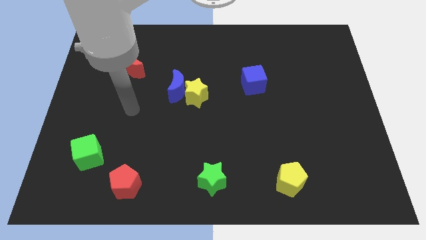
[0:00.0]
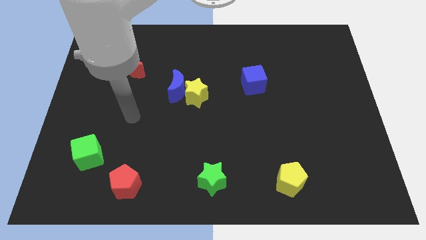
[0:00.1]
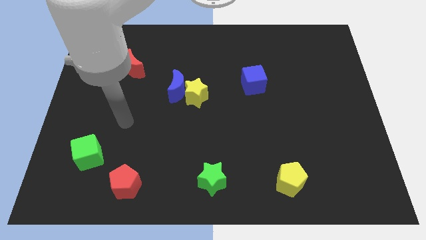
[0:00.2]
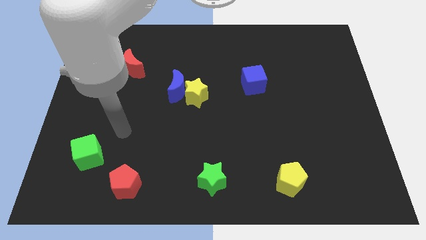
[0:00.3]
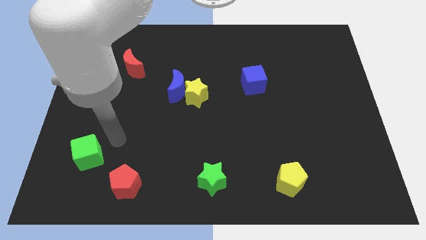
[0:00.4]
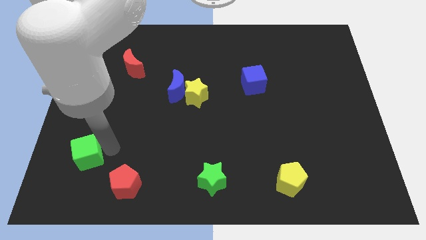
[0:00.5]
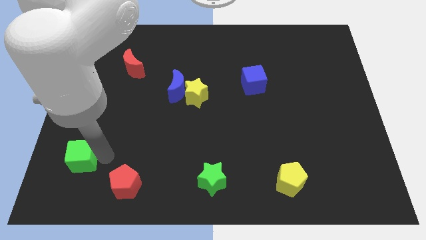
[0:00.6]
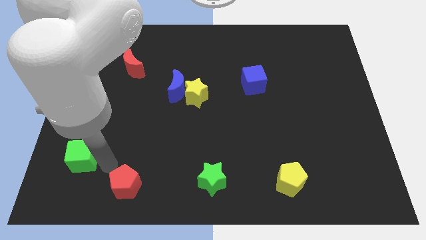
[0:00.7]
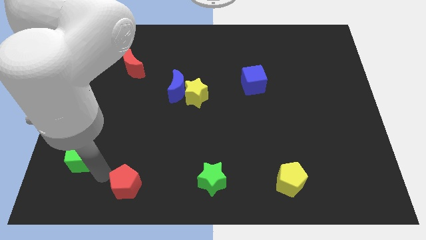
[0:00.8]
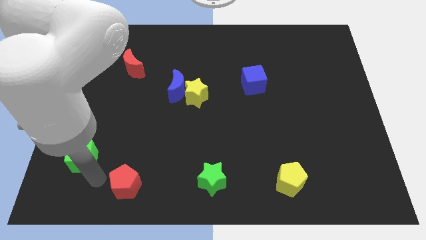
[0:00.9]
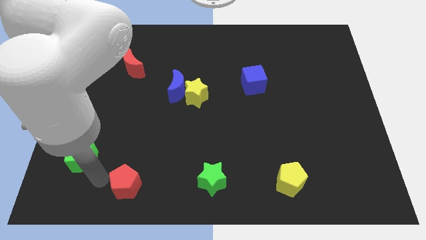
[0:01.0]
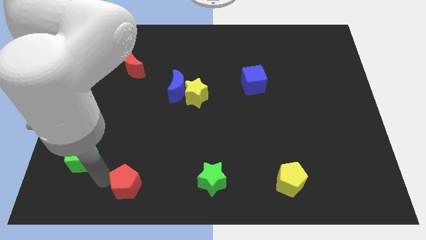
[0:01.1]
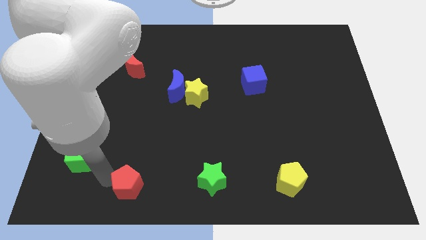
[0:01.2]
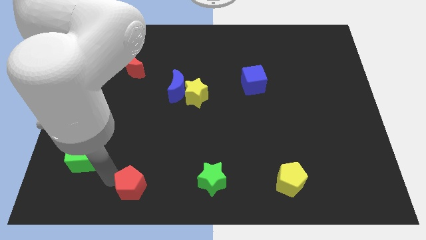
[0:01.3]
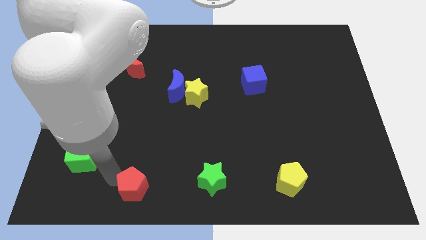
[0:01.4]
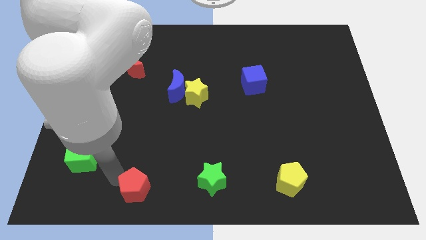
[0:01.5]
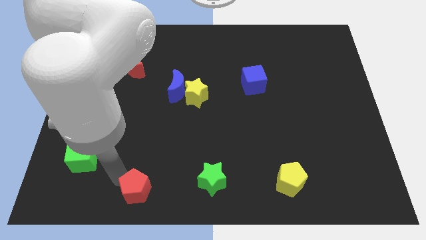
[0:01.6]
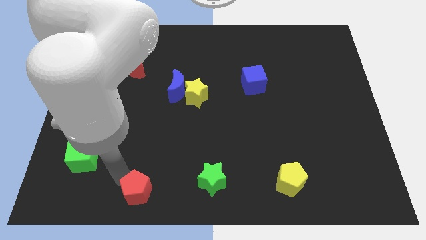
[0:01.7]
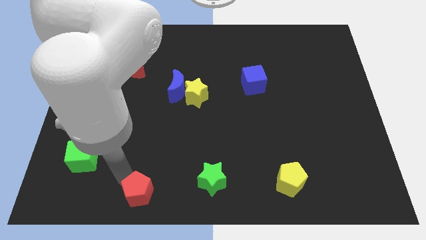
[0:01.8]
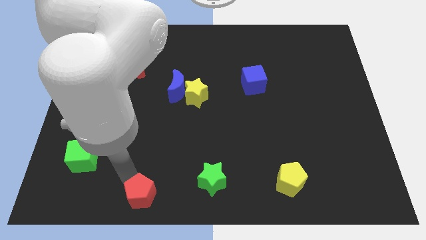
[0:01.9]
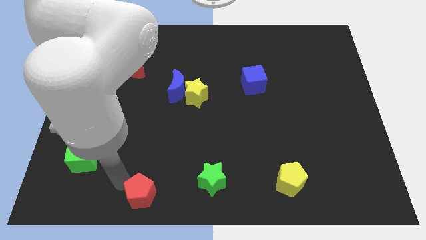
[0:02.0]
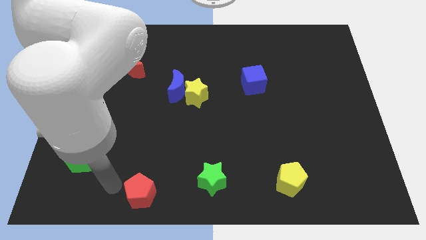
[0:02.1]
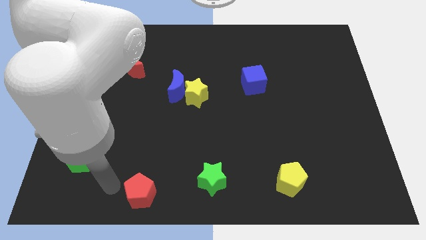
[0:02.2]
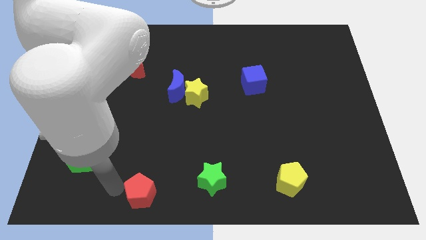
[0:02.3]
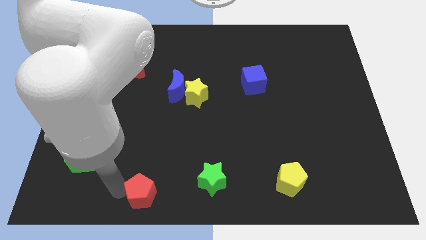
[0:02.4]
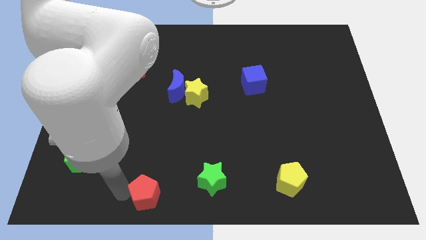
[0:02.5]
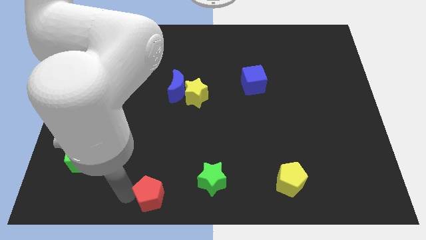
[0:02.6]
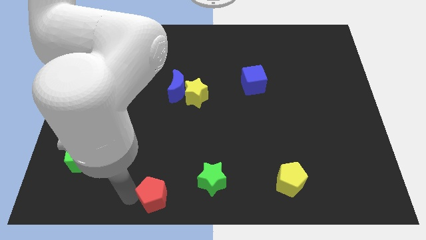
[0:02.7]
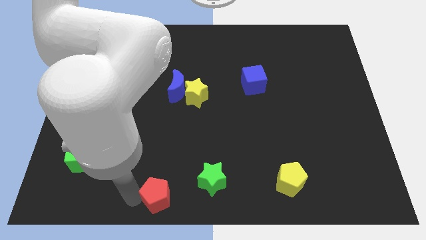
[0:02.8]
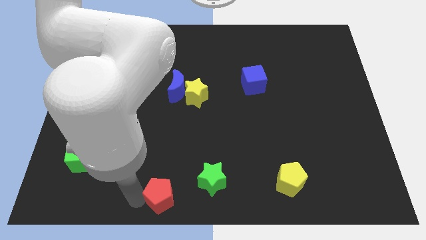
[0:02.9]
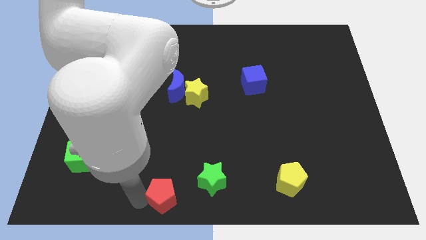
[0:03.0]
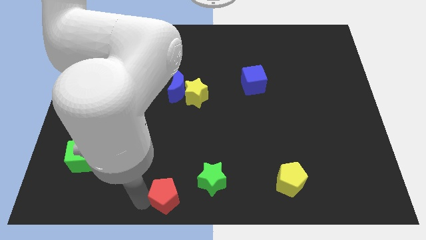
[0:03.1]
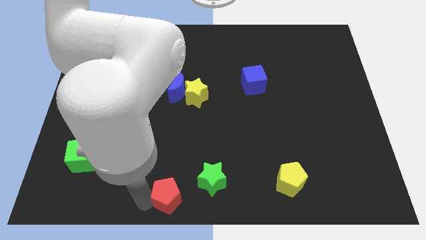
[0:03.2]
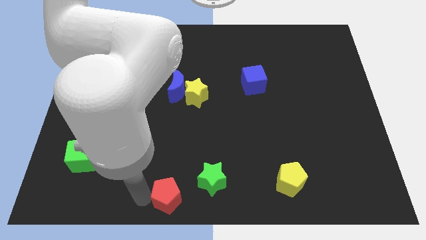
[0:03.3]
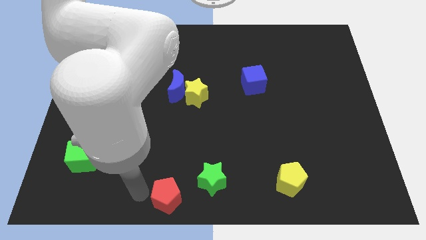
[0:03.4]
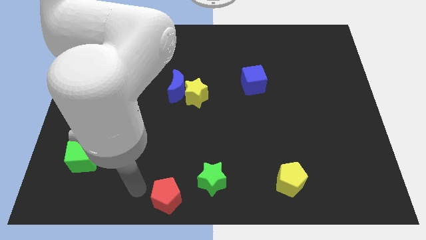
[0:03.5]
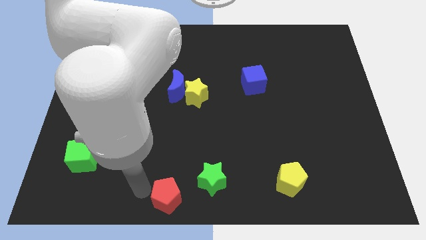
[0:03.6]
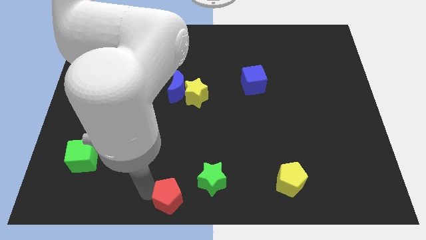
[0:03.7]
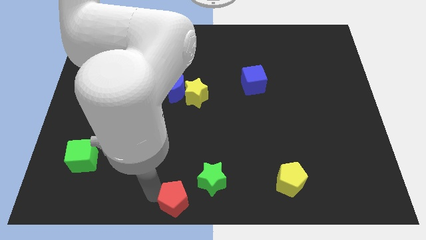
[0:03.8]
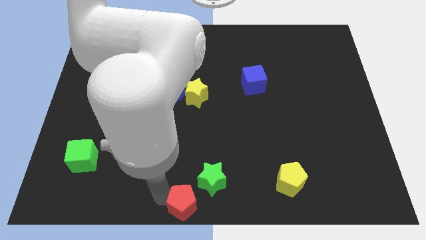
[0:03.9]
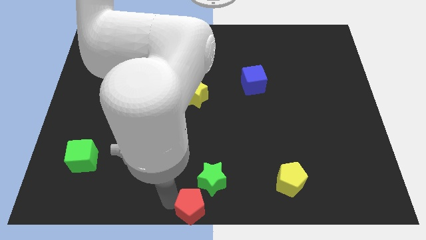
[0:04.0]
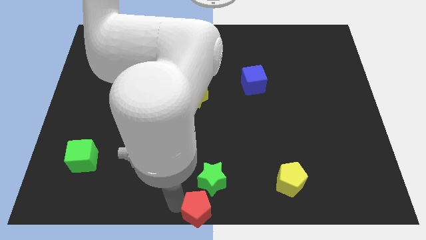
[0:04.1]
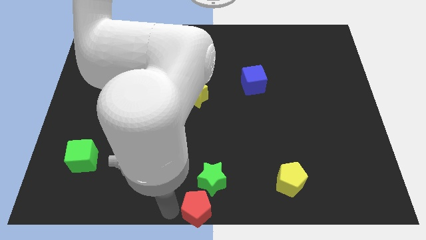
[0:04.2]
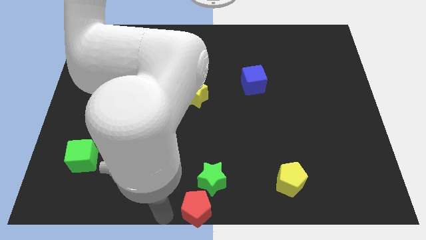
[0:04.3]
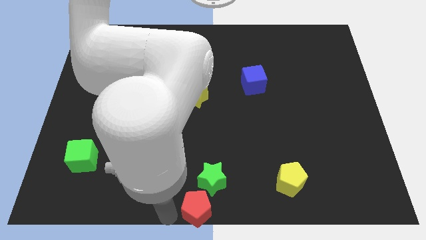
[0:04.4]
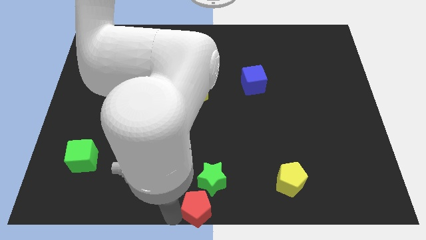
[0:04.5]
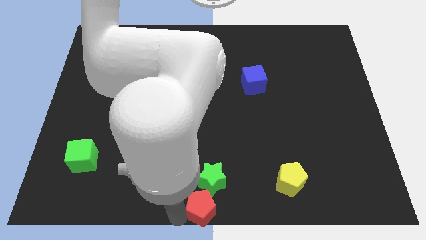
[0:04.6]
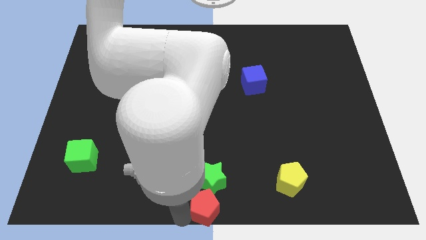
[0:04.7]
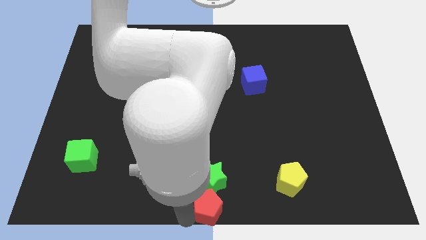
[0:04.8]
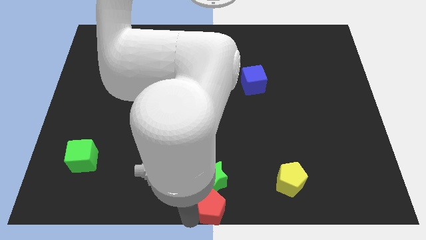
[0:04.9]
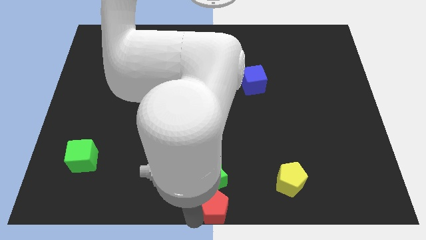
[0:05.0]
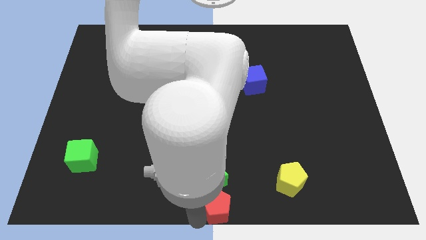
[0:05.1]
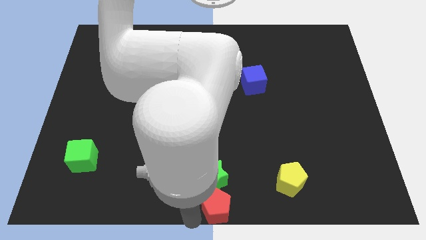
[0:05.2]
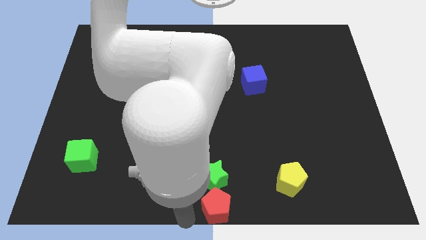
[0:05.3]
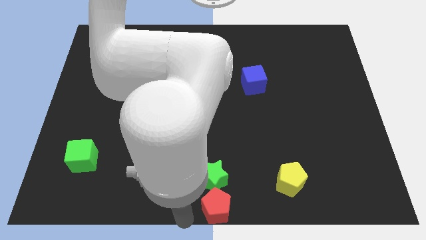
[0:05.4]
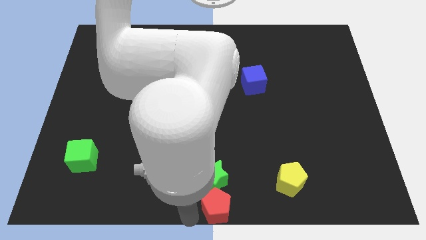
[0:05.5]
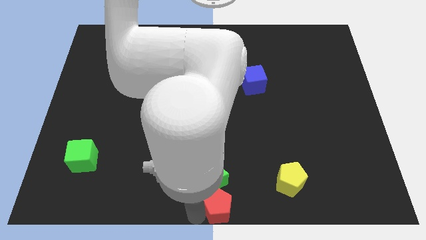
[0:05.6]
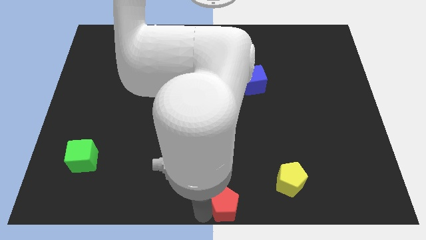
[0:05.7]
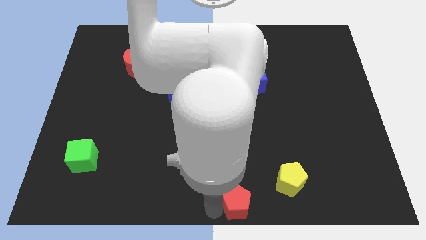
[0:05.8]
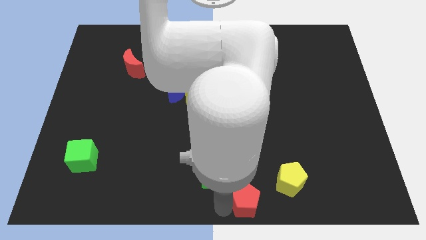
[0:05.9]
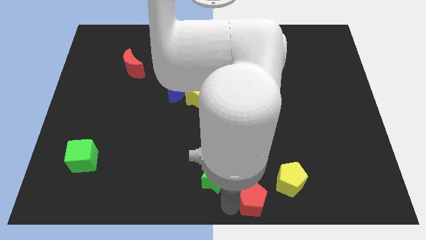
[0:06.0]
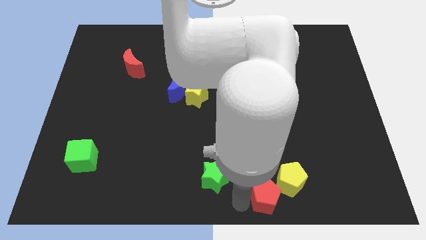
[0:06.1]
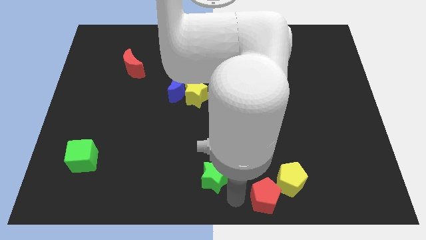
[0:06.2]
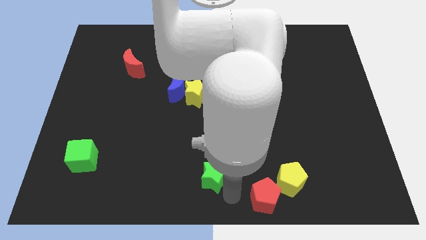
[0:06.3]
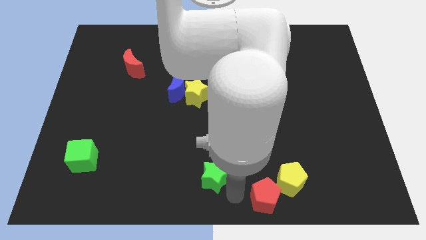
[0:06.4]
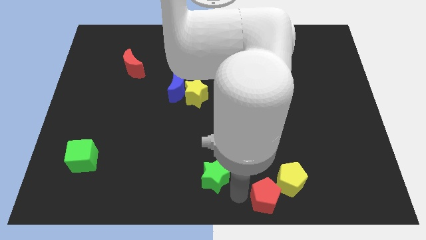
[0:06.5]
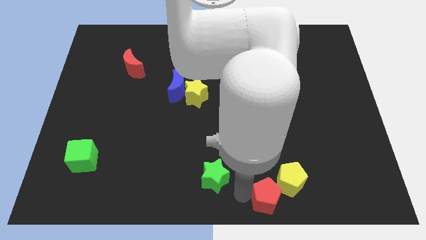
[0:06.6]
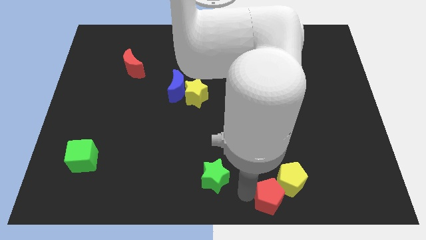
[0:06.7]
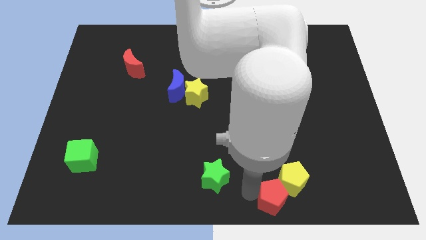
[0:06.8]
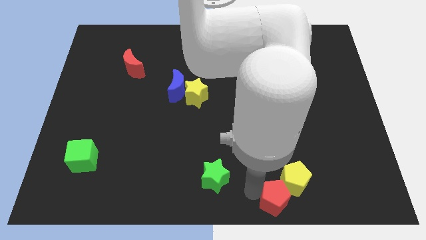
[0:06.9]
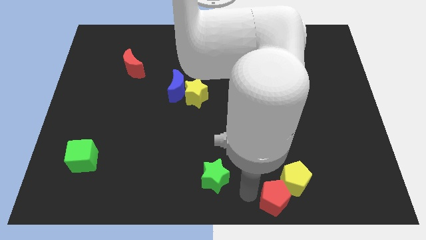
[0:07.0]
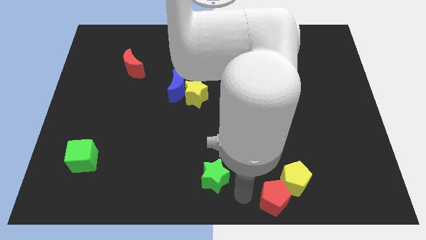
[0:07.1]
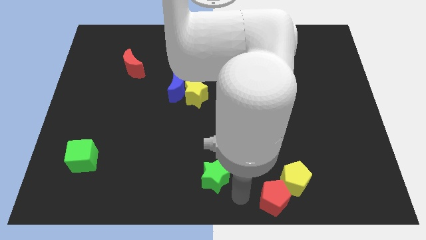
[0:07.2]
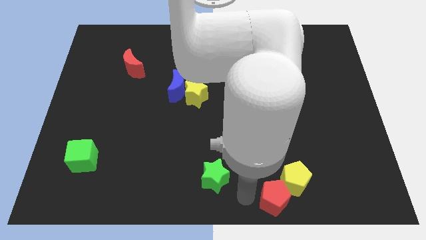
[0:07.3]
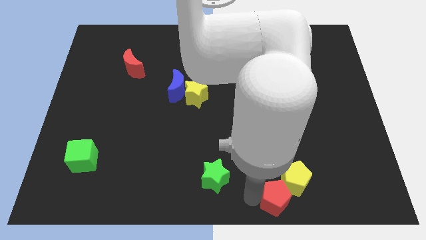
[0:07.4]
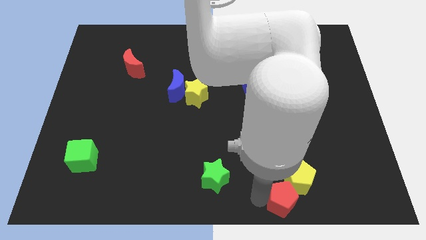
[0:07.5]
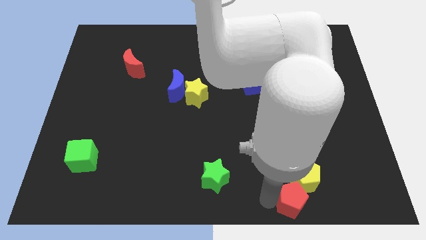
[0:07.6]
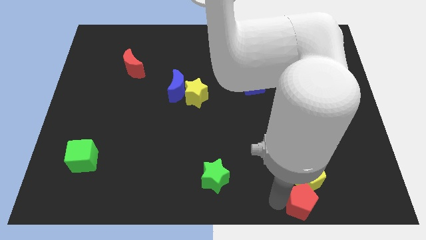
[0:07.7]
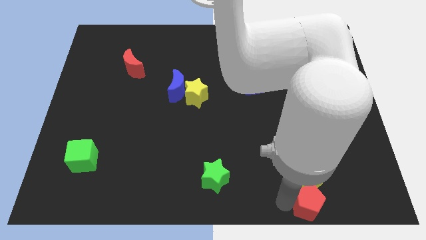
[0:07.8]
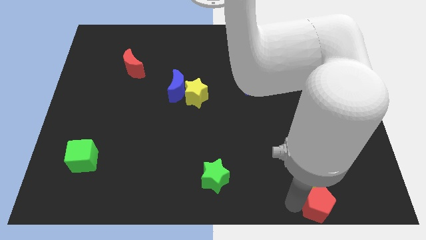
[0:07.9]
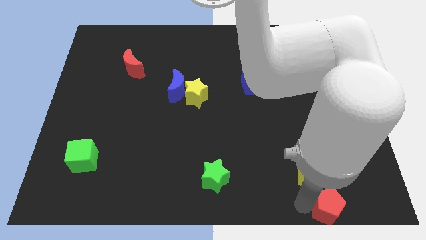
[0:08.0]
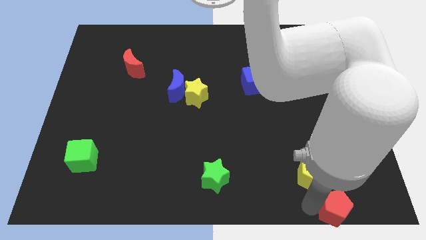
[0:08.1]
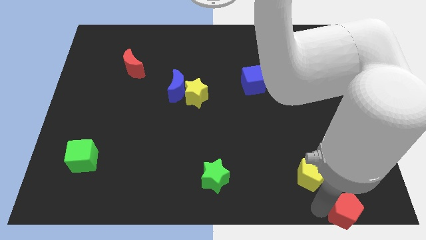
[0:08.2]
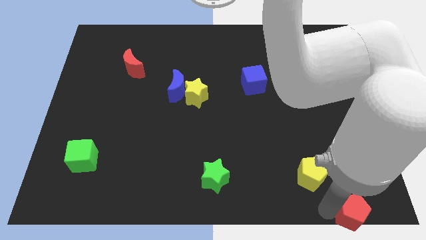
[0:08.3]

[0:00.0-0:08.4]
put the red pentagon to the bottom right
